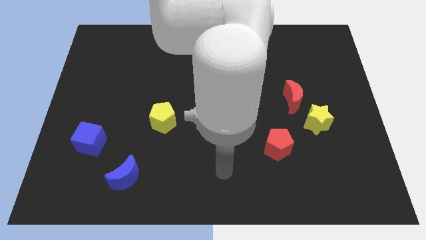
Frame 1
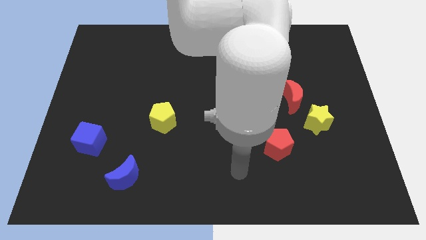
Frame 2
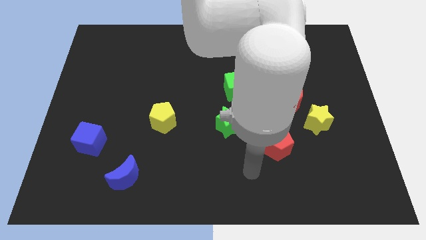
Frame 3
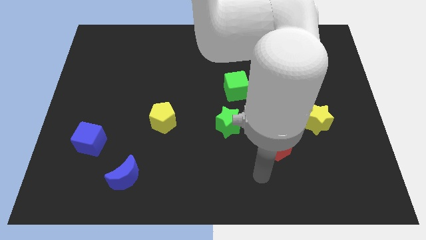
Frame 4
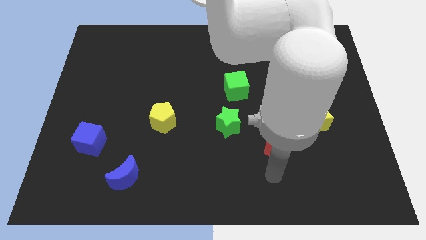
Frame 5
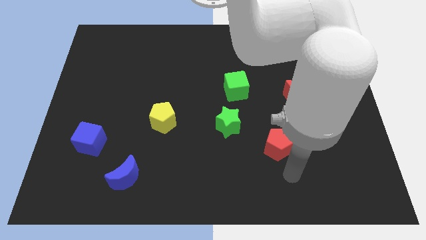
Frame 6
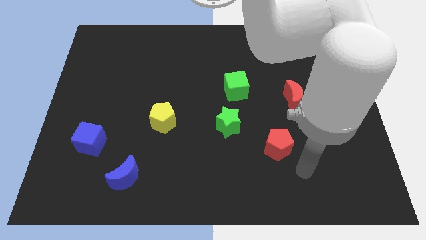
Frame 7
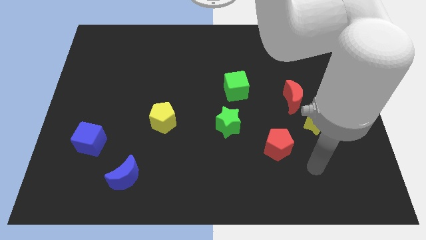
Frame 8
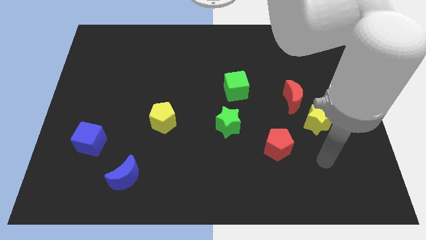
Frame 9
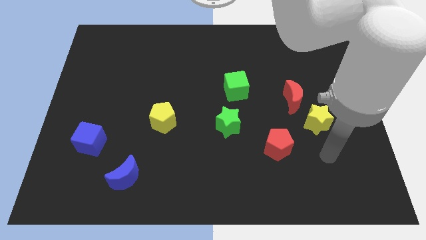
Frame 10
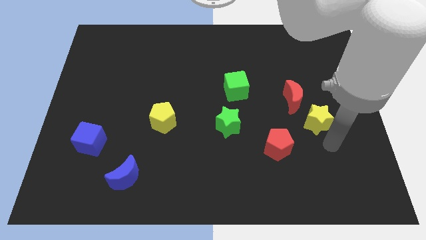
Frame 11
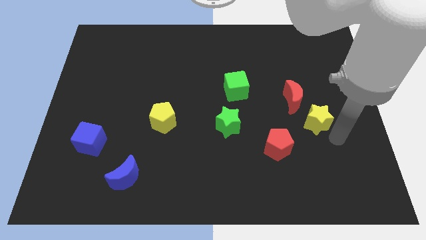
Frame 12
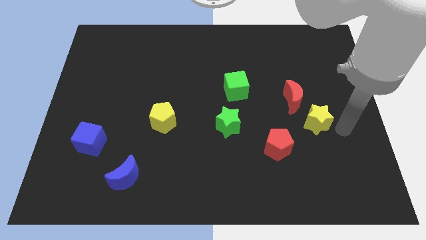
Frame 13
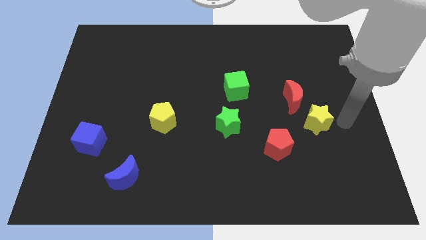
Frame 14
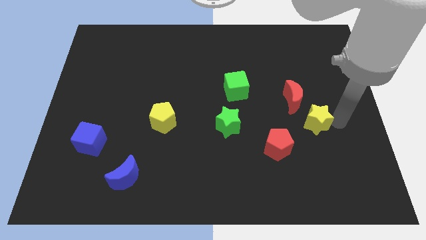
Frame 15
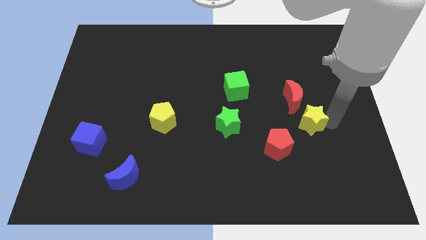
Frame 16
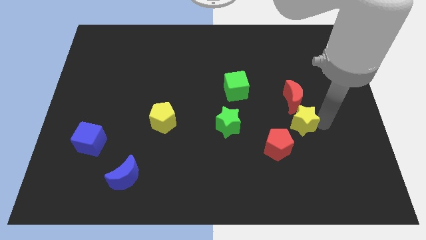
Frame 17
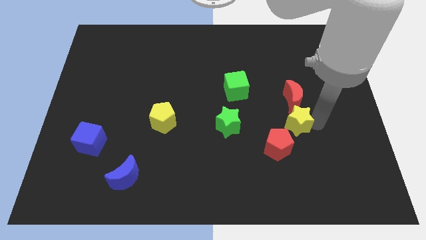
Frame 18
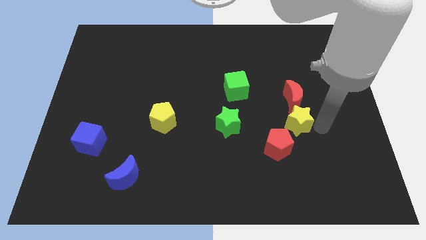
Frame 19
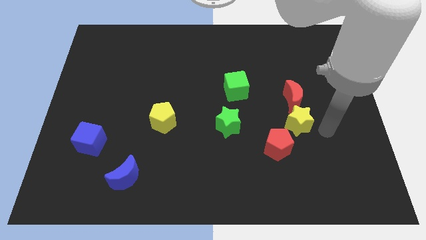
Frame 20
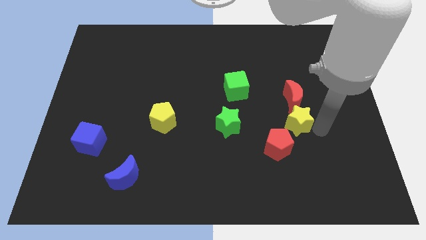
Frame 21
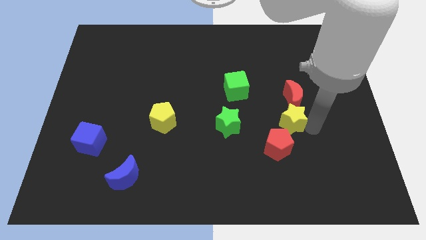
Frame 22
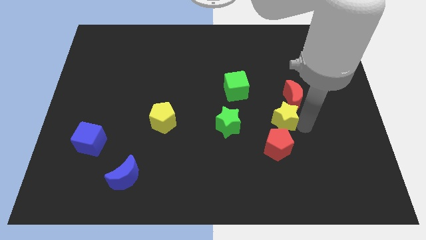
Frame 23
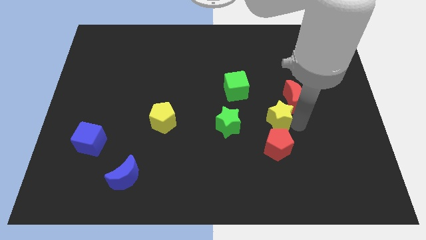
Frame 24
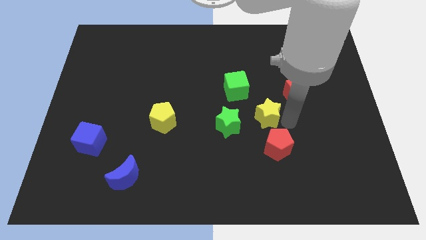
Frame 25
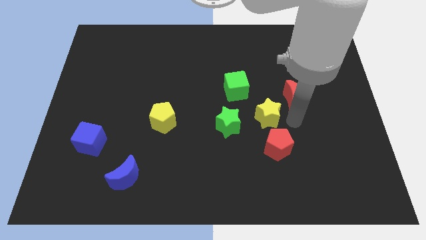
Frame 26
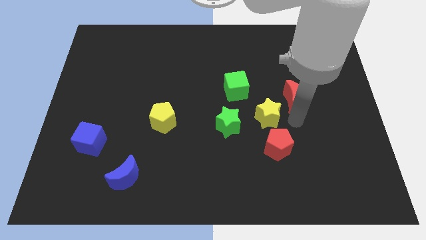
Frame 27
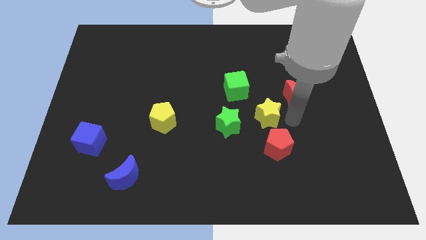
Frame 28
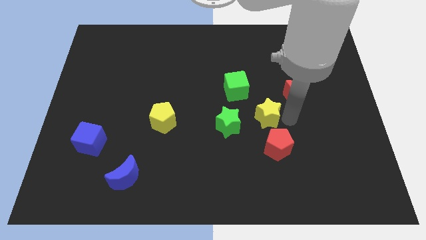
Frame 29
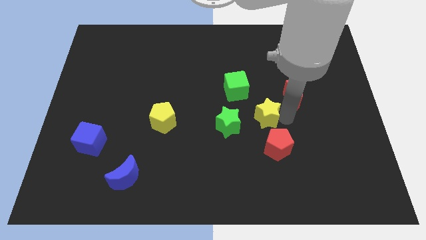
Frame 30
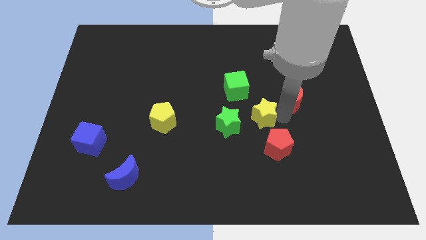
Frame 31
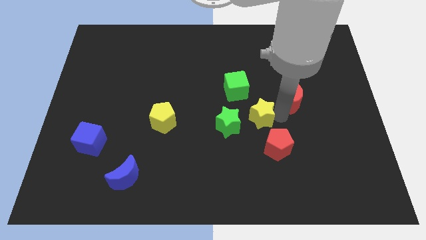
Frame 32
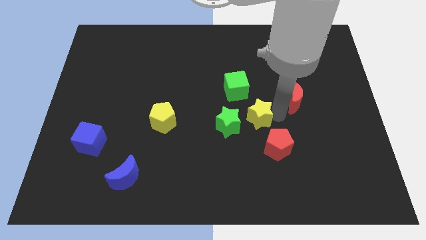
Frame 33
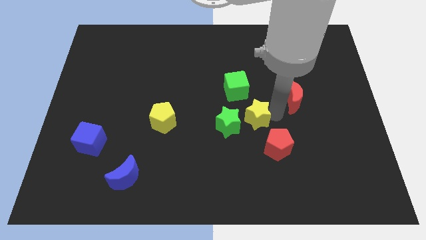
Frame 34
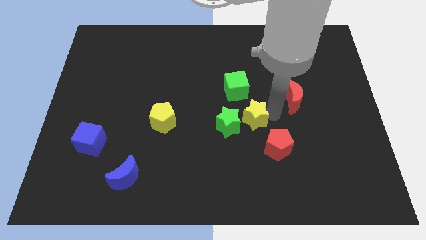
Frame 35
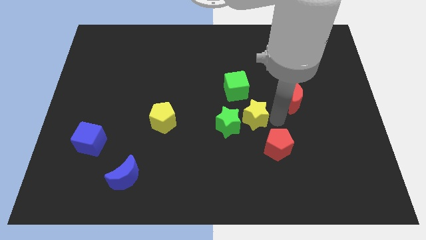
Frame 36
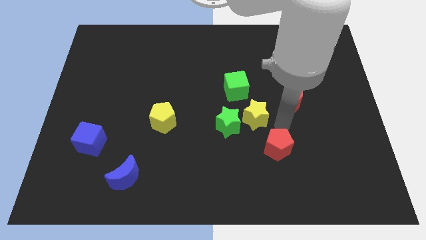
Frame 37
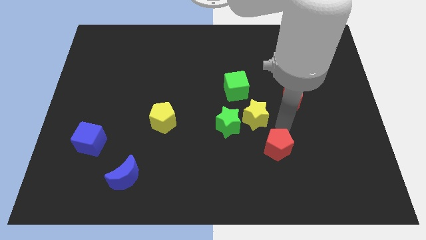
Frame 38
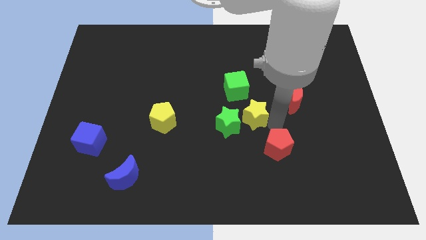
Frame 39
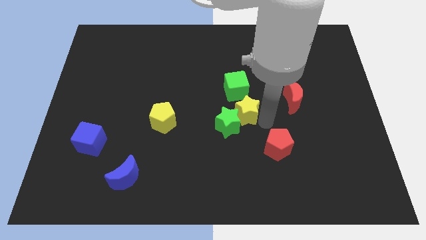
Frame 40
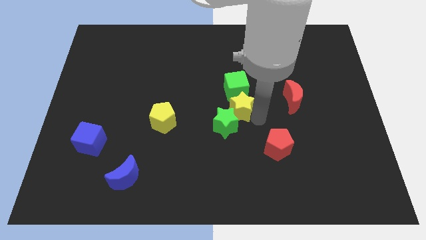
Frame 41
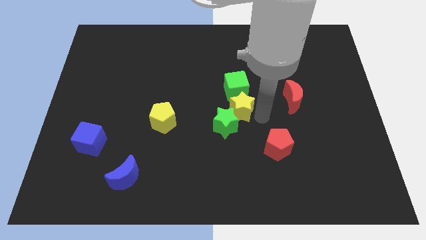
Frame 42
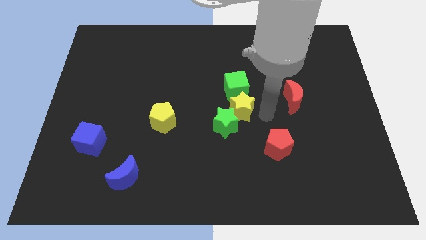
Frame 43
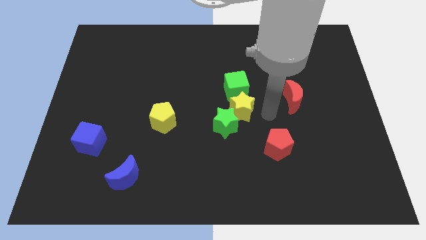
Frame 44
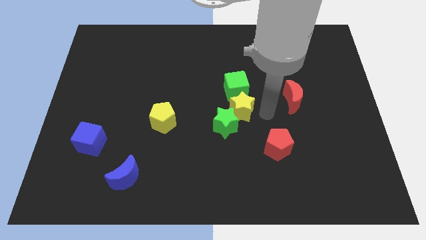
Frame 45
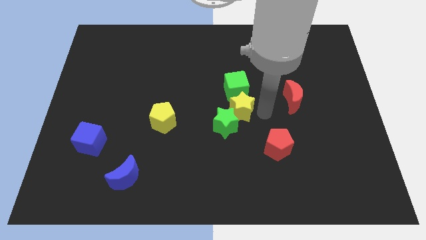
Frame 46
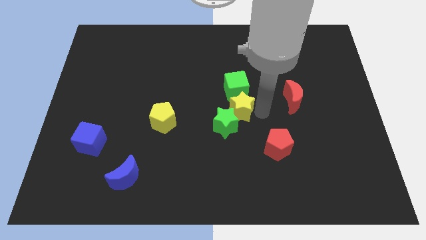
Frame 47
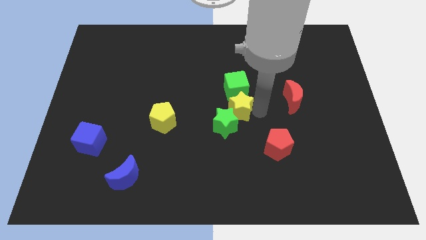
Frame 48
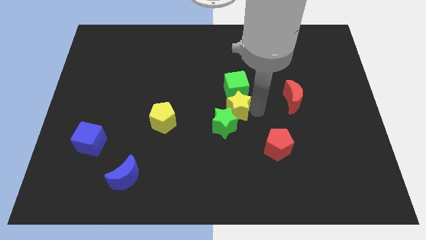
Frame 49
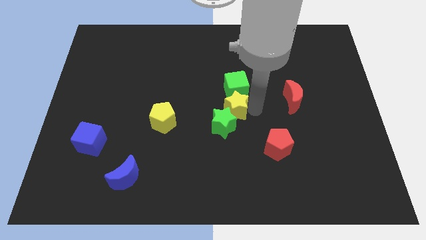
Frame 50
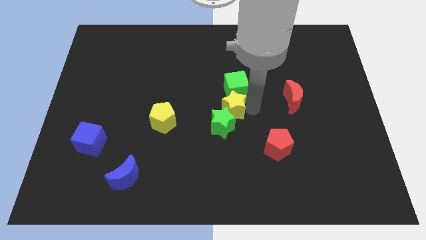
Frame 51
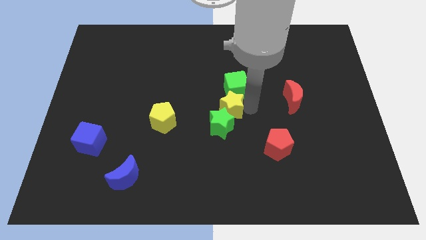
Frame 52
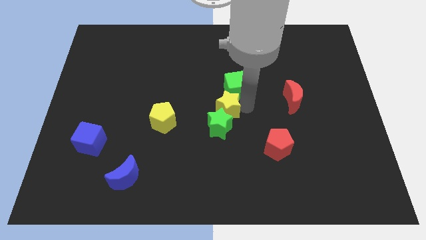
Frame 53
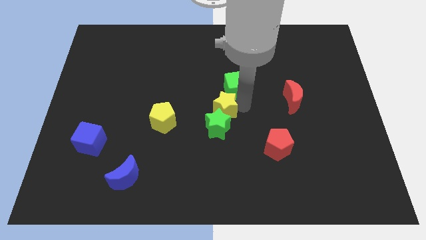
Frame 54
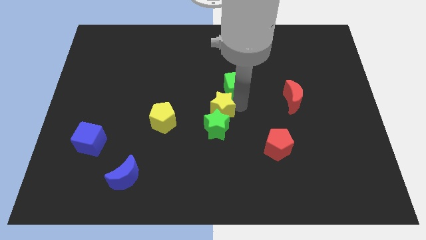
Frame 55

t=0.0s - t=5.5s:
move the yellow star to the top left side of the green star

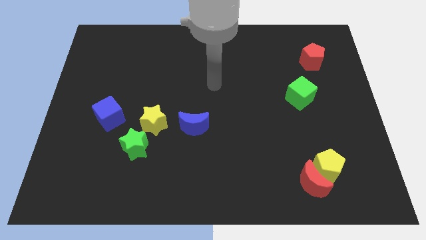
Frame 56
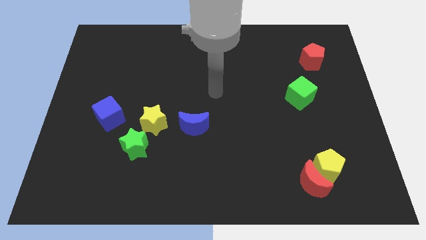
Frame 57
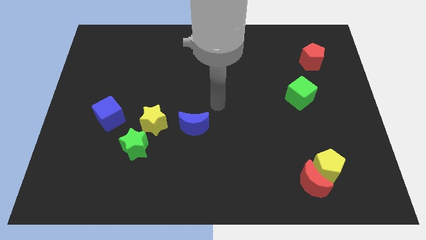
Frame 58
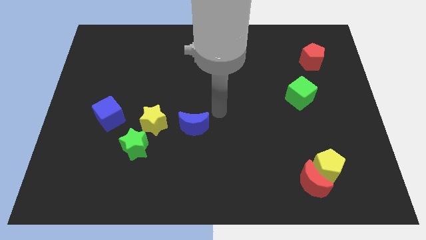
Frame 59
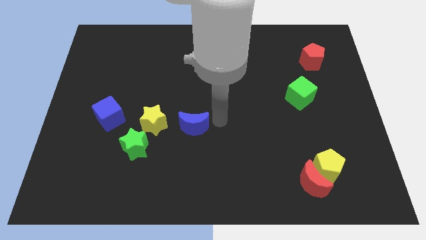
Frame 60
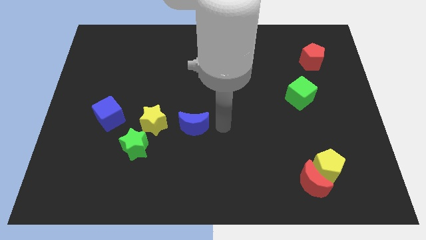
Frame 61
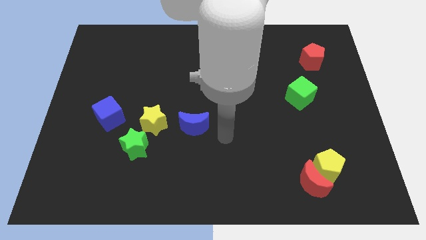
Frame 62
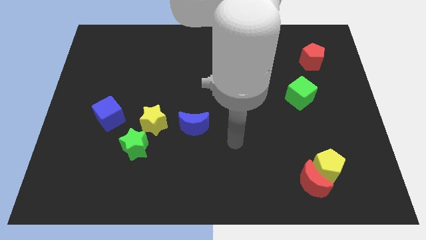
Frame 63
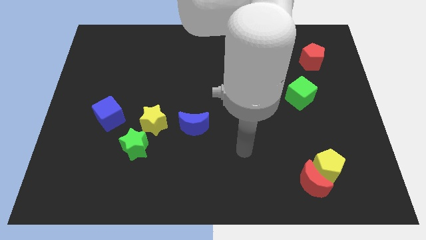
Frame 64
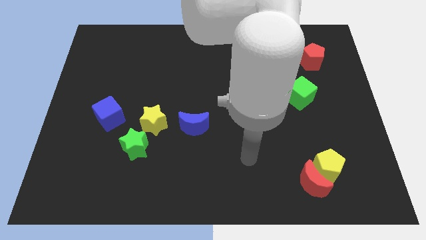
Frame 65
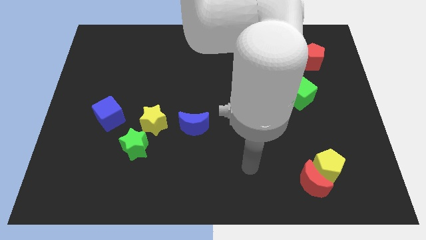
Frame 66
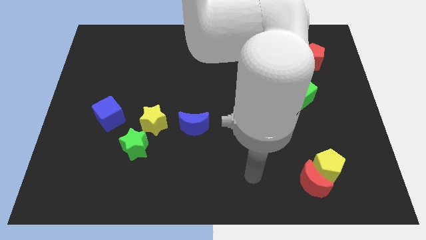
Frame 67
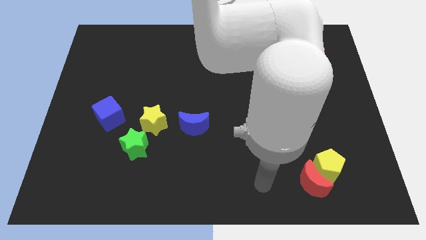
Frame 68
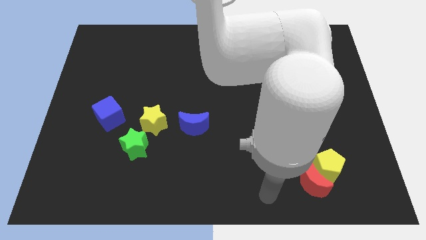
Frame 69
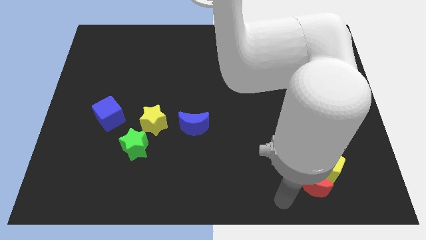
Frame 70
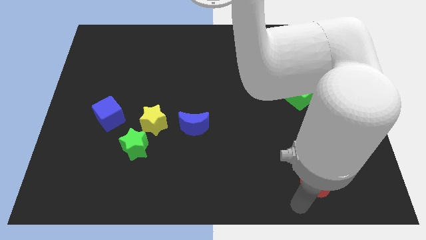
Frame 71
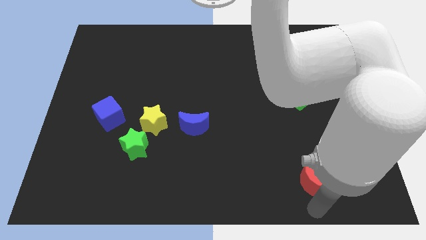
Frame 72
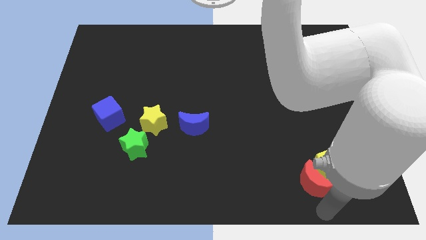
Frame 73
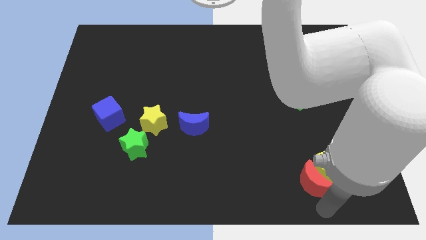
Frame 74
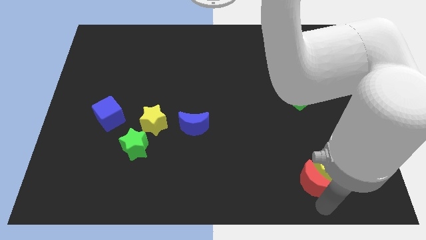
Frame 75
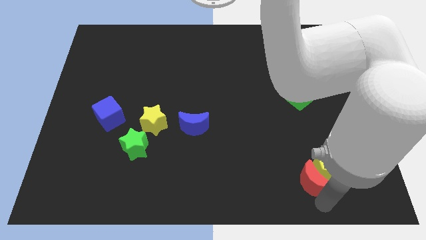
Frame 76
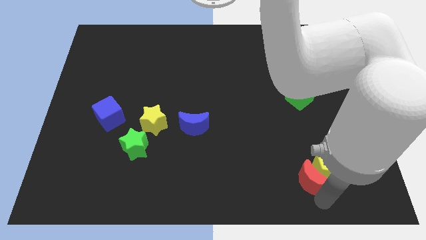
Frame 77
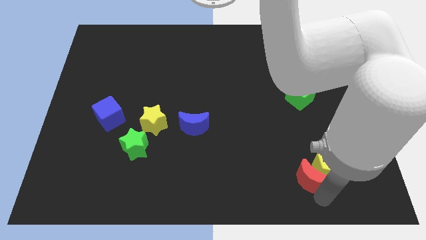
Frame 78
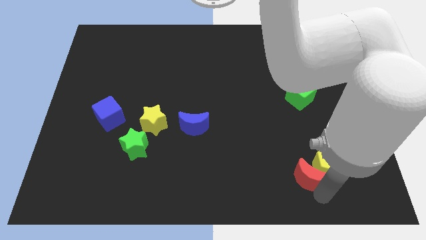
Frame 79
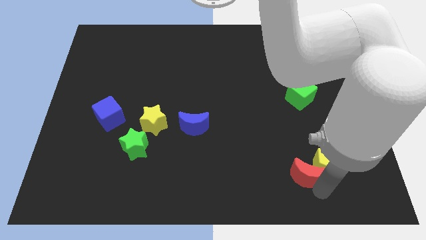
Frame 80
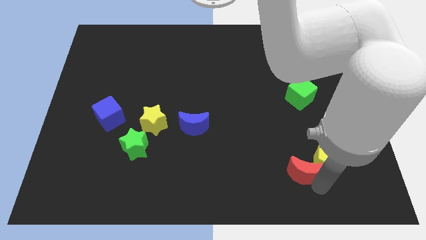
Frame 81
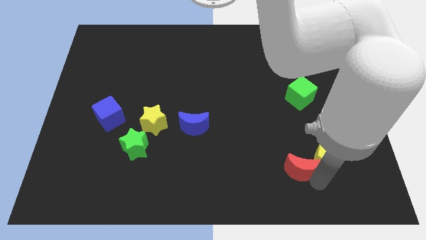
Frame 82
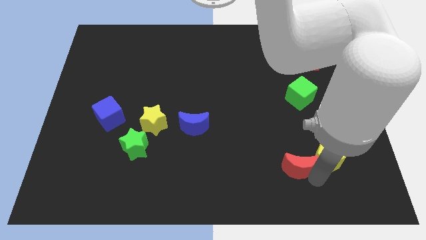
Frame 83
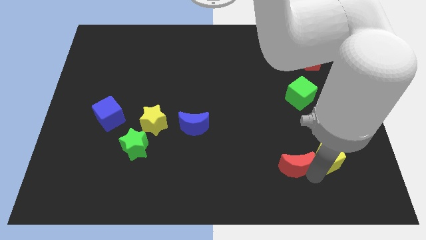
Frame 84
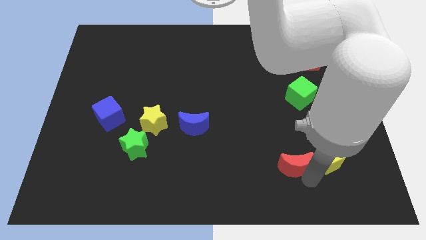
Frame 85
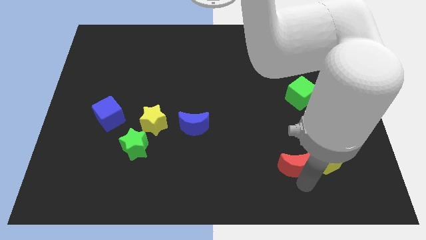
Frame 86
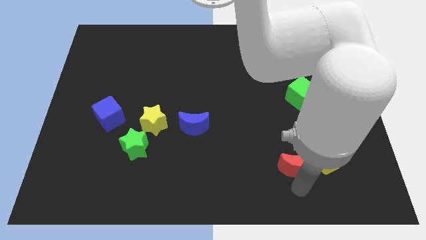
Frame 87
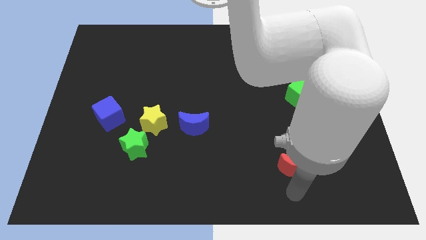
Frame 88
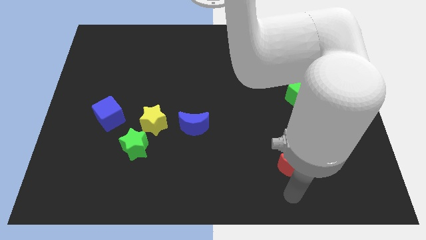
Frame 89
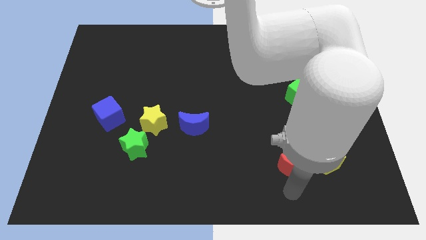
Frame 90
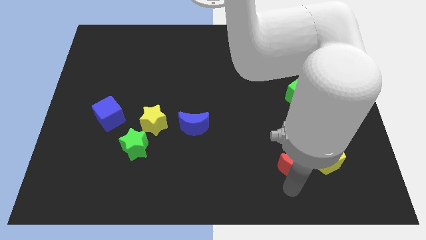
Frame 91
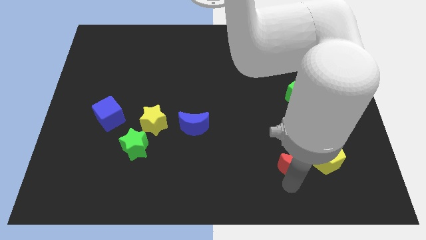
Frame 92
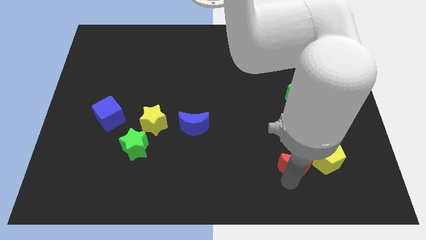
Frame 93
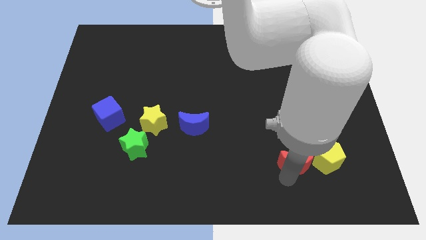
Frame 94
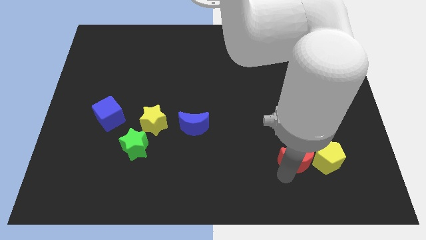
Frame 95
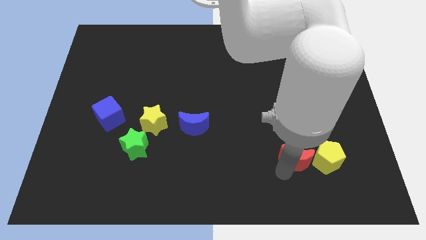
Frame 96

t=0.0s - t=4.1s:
slide the red moon diagonally up and to the left of the yellow pentagon
